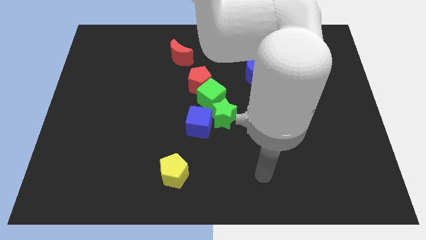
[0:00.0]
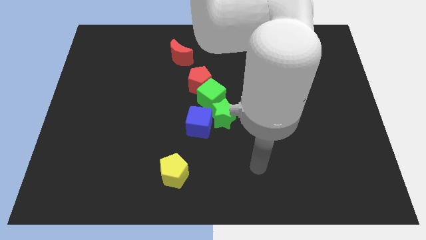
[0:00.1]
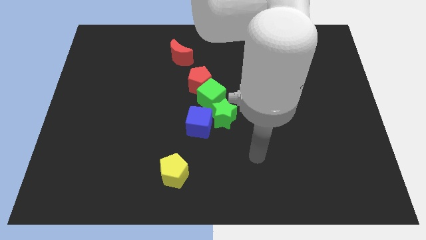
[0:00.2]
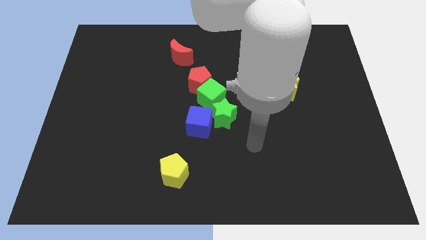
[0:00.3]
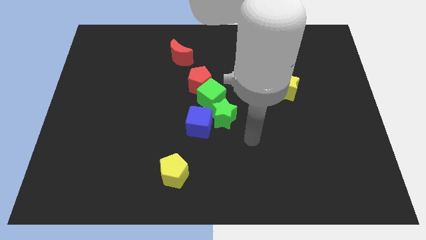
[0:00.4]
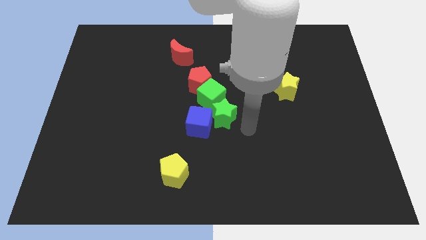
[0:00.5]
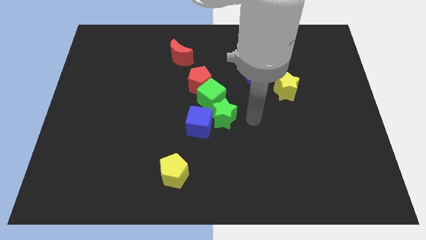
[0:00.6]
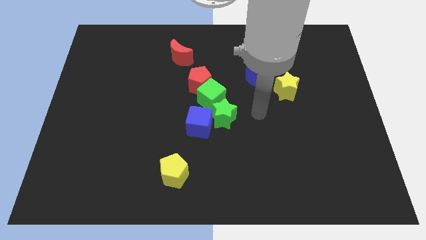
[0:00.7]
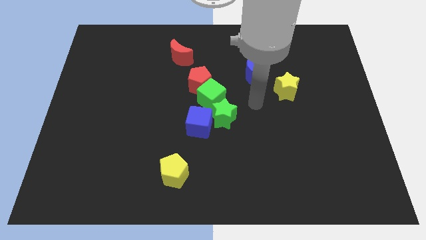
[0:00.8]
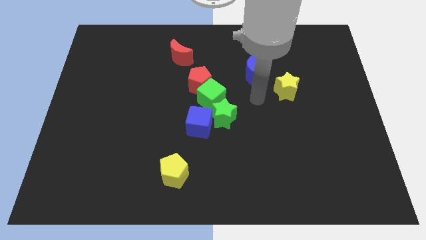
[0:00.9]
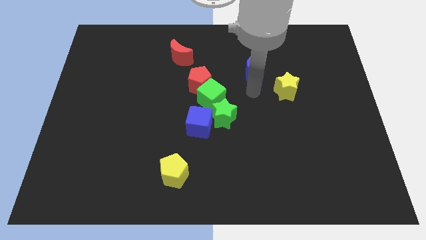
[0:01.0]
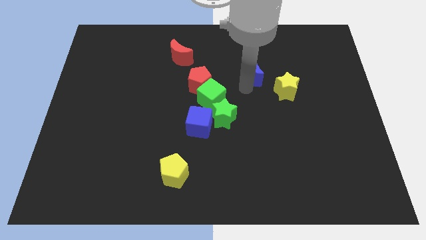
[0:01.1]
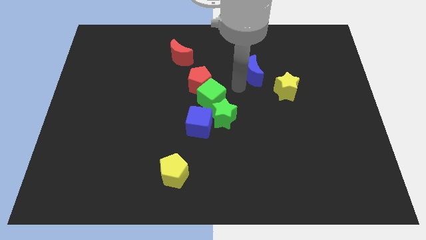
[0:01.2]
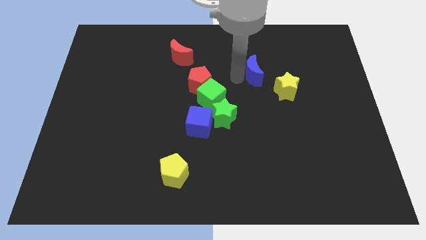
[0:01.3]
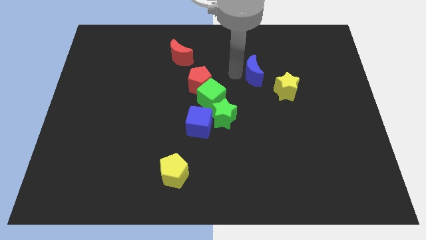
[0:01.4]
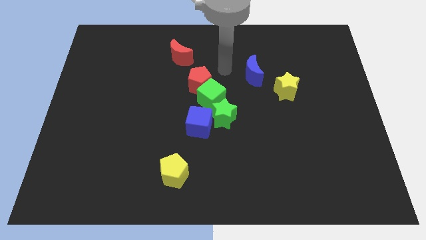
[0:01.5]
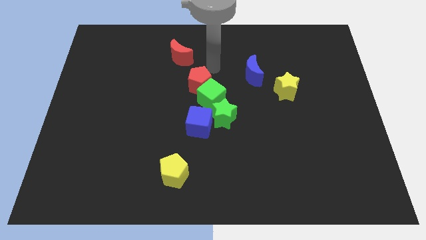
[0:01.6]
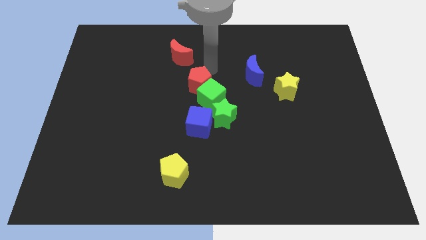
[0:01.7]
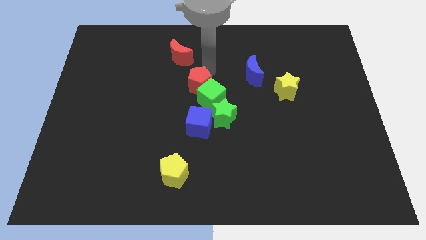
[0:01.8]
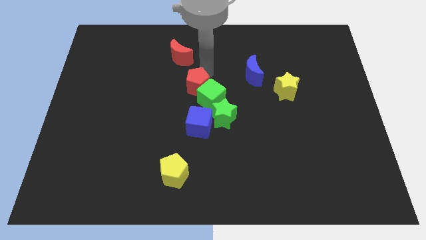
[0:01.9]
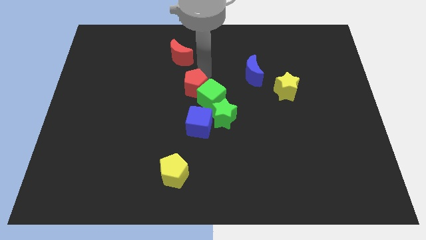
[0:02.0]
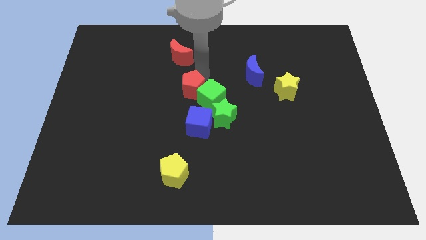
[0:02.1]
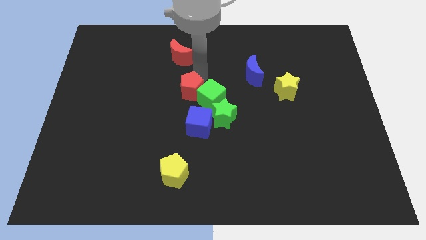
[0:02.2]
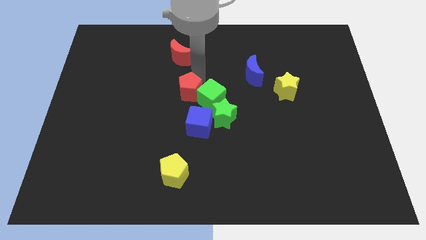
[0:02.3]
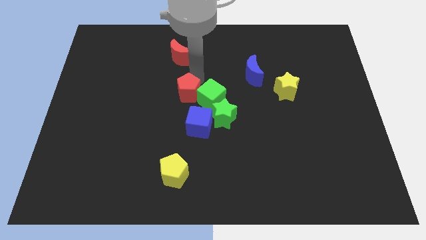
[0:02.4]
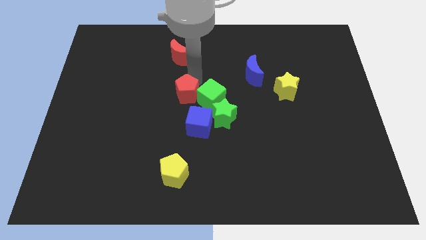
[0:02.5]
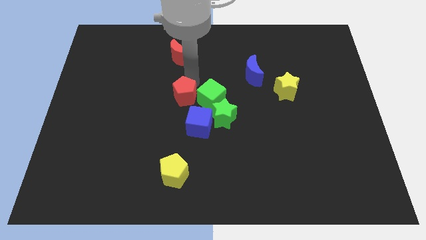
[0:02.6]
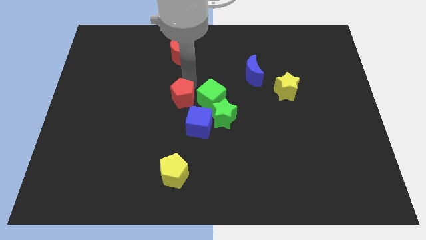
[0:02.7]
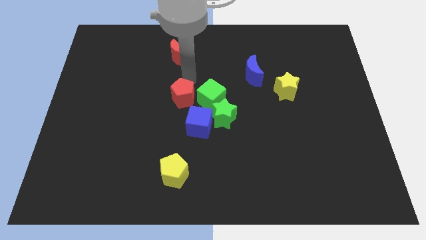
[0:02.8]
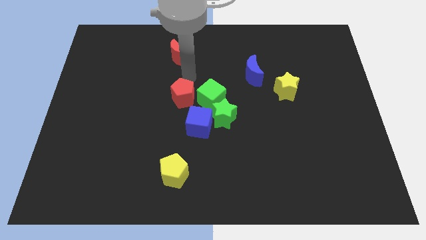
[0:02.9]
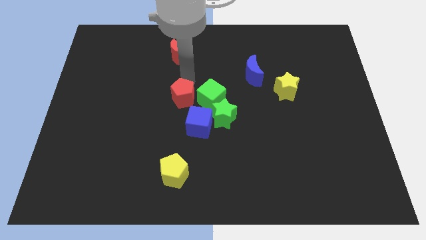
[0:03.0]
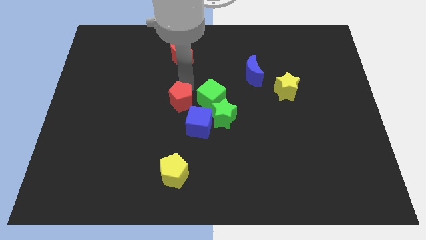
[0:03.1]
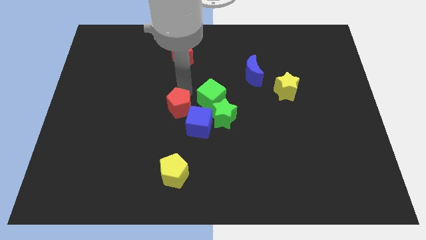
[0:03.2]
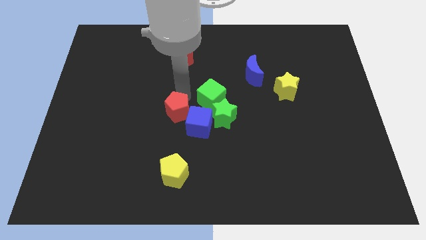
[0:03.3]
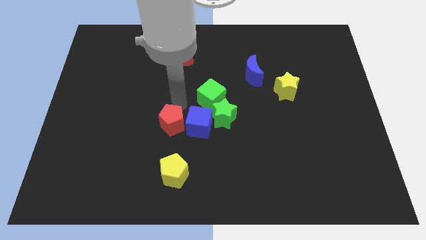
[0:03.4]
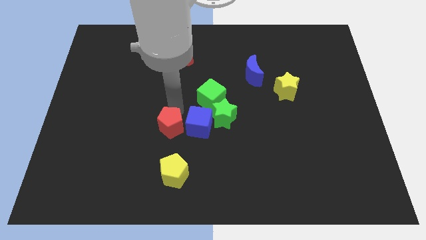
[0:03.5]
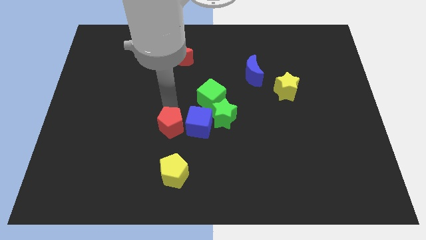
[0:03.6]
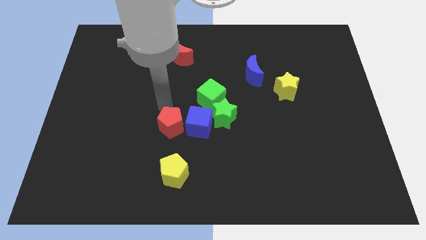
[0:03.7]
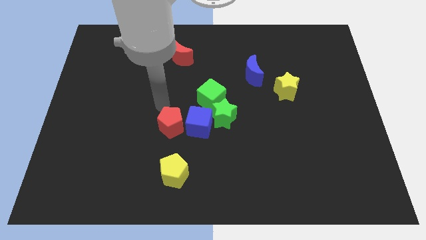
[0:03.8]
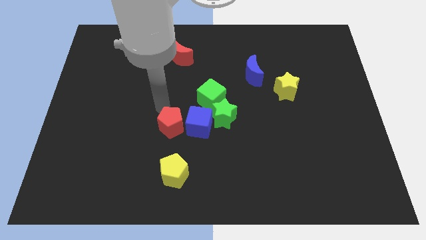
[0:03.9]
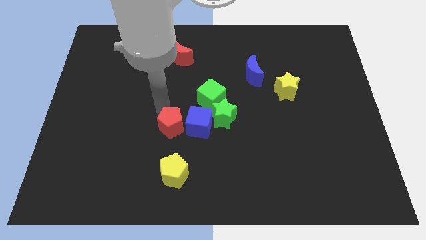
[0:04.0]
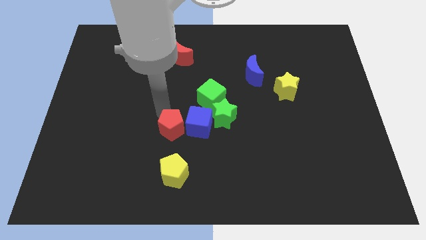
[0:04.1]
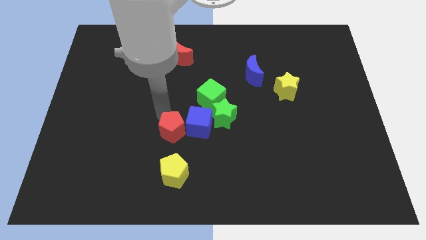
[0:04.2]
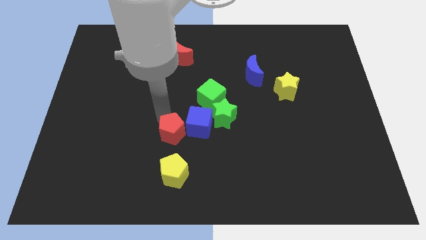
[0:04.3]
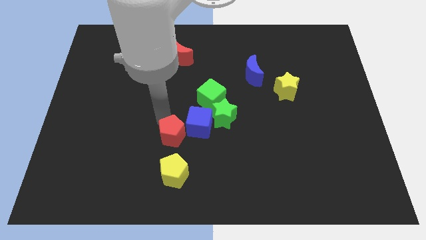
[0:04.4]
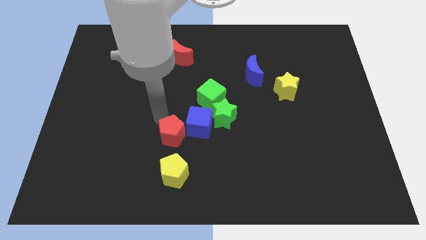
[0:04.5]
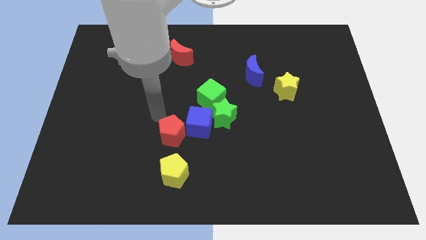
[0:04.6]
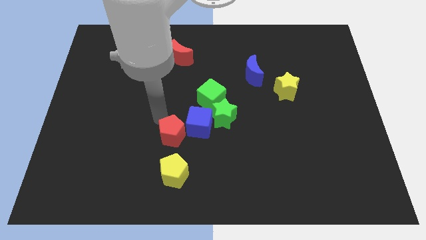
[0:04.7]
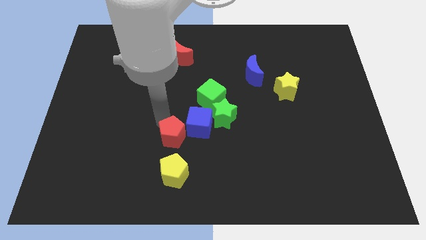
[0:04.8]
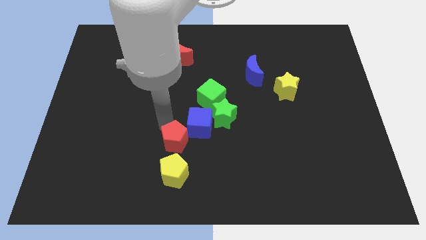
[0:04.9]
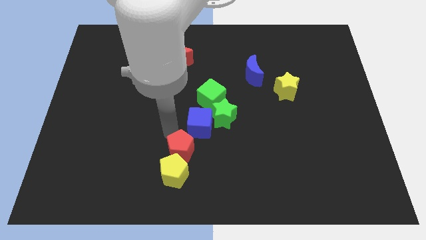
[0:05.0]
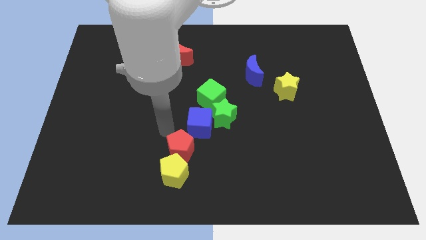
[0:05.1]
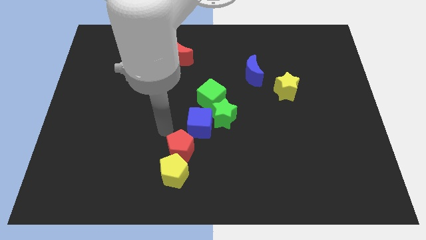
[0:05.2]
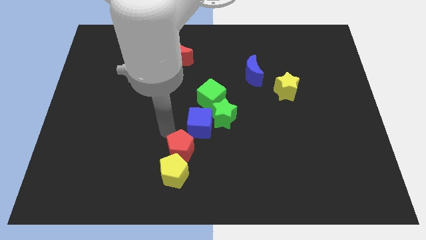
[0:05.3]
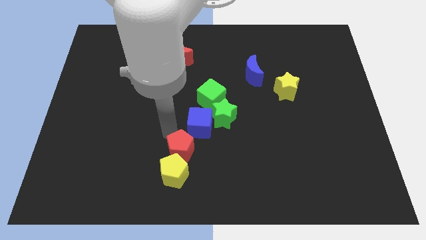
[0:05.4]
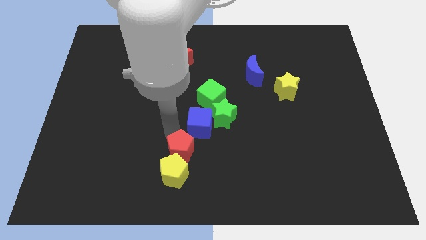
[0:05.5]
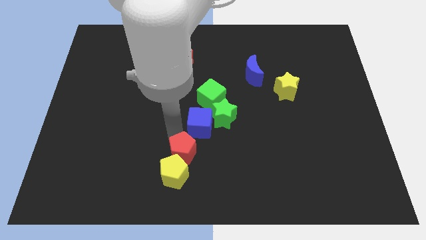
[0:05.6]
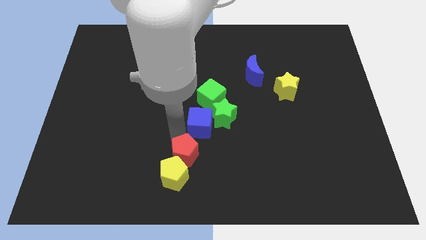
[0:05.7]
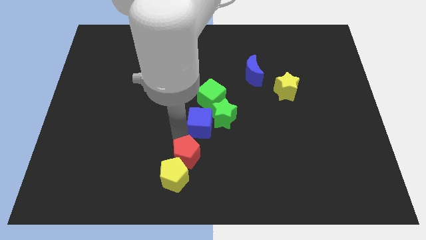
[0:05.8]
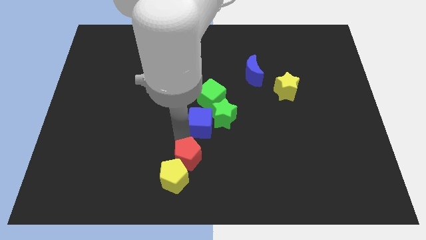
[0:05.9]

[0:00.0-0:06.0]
move the red pentagon to the bottom side

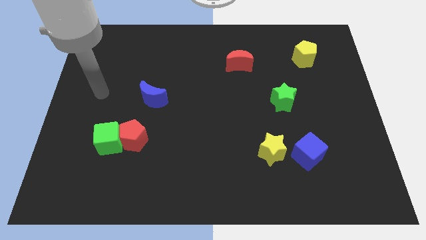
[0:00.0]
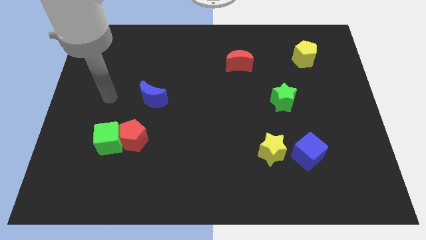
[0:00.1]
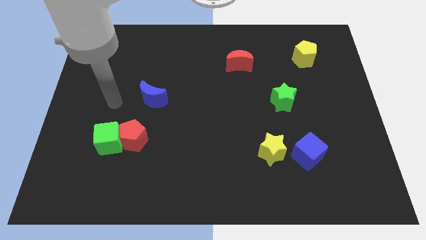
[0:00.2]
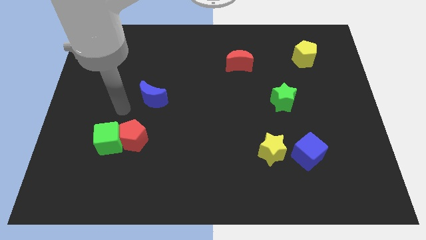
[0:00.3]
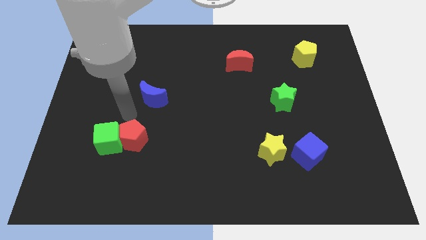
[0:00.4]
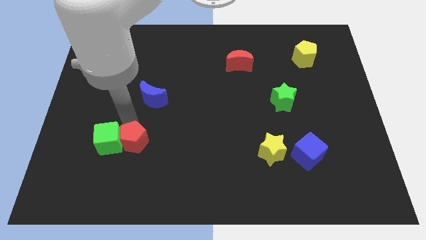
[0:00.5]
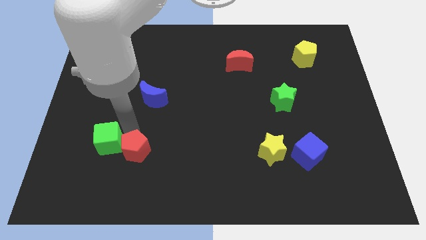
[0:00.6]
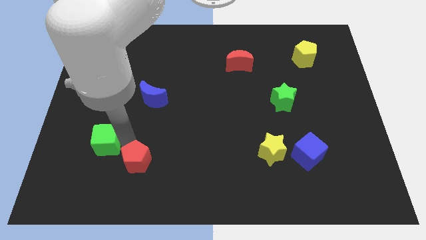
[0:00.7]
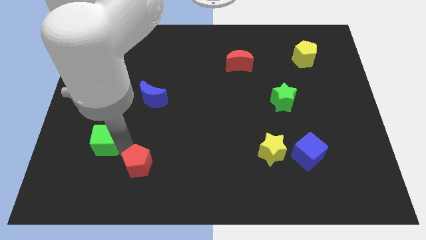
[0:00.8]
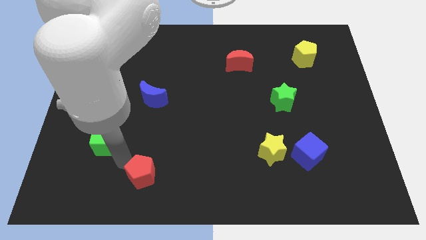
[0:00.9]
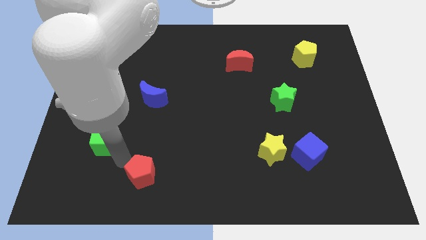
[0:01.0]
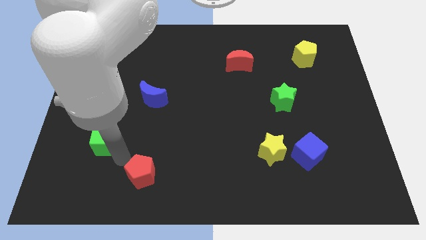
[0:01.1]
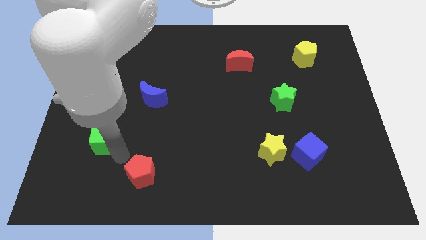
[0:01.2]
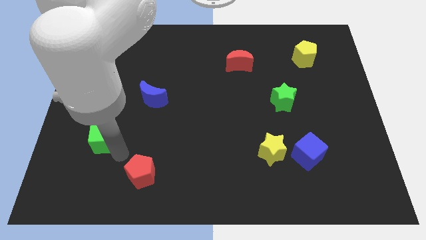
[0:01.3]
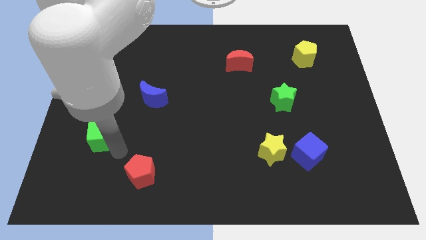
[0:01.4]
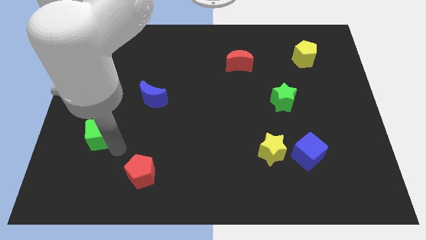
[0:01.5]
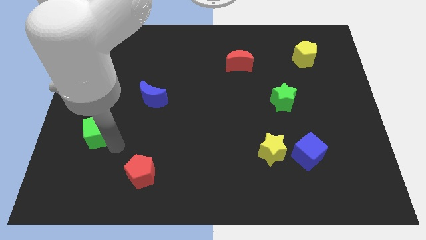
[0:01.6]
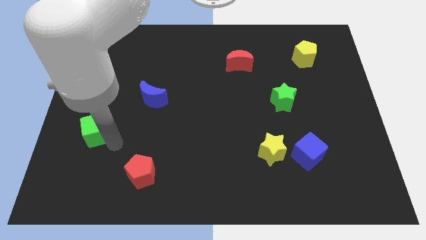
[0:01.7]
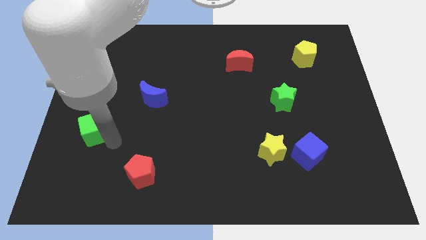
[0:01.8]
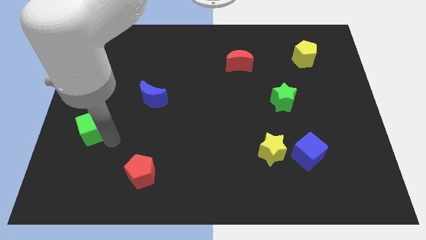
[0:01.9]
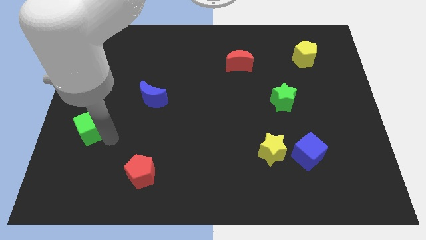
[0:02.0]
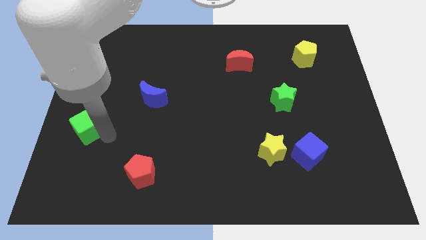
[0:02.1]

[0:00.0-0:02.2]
slide the green cube to the left side of the board
